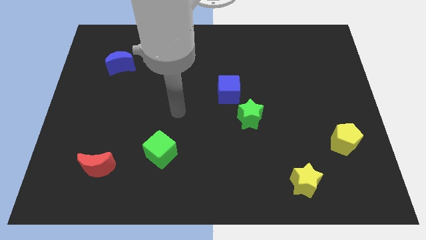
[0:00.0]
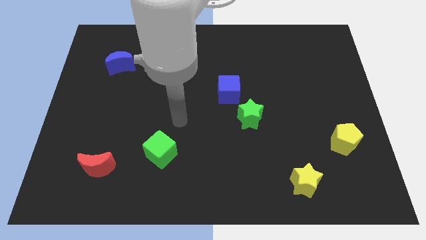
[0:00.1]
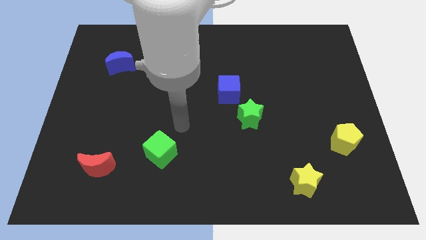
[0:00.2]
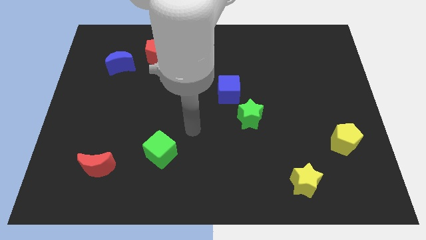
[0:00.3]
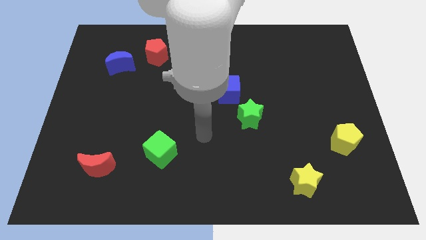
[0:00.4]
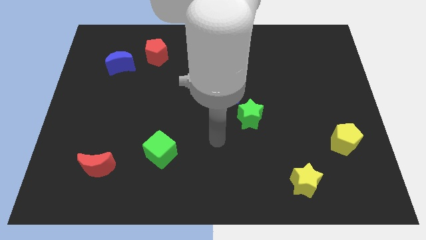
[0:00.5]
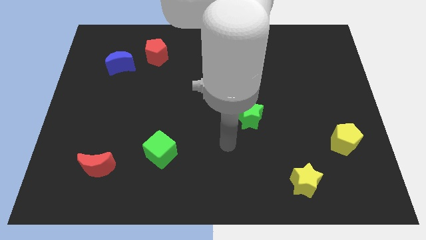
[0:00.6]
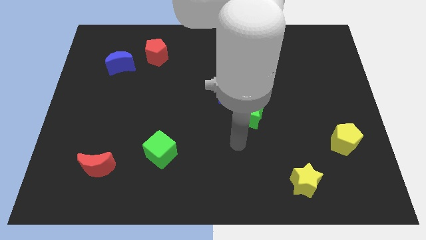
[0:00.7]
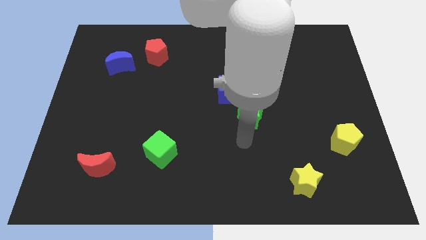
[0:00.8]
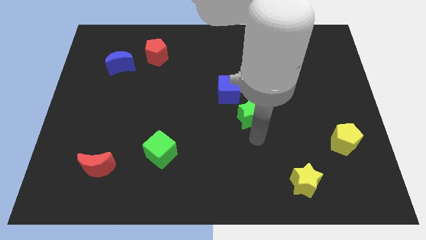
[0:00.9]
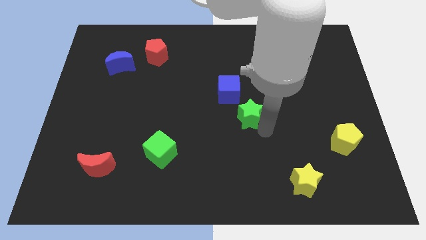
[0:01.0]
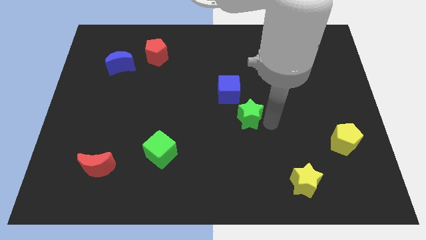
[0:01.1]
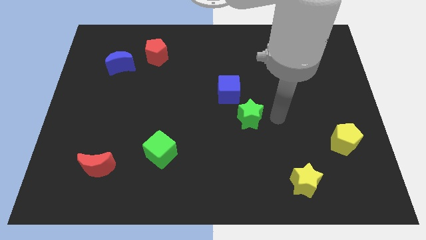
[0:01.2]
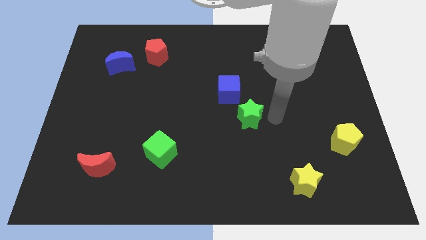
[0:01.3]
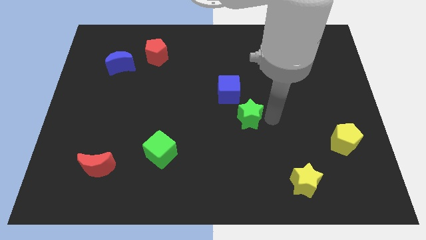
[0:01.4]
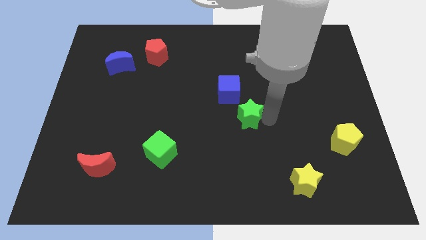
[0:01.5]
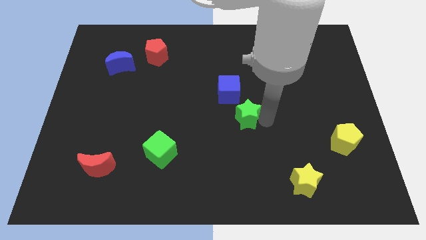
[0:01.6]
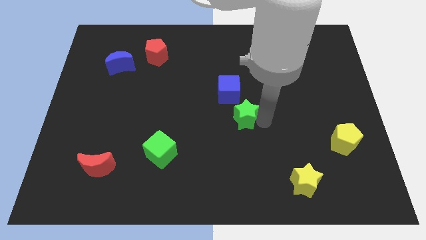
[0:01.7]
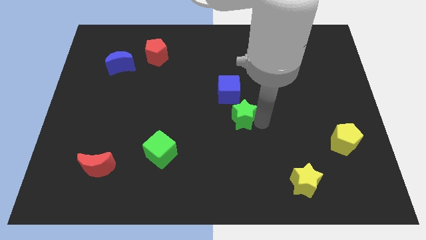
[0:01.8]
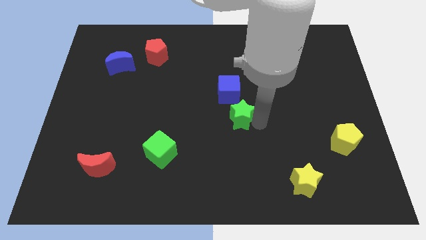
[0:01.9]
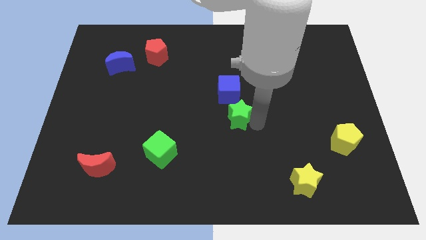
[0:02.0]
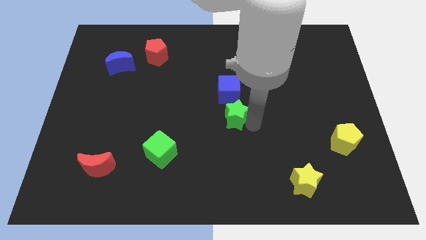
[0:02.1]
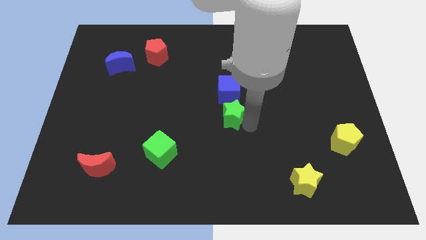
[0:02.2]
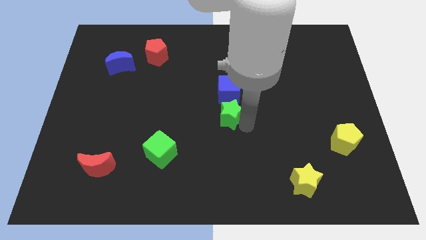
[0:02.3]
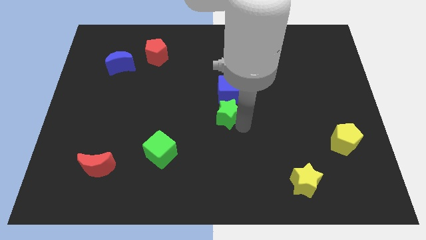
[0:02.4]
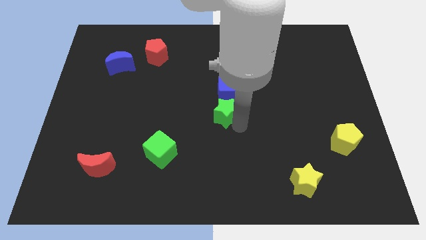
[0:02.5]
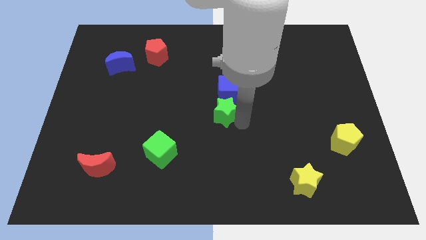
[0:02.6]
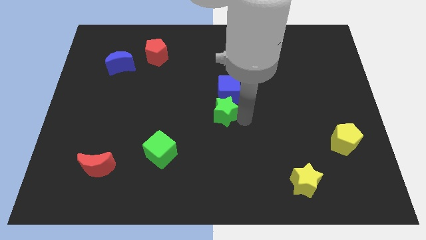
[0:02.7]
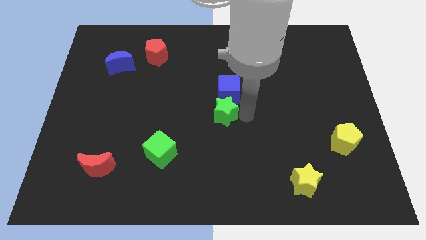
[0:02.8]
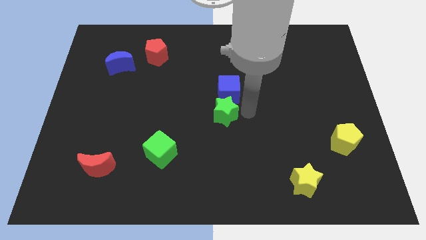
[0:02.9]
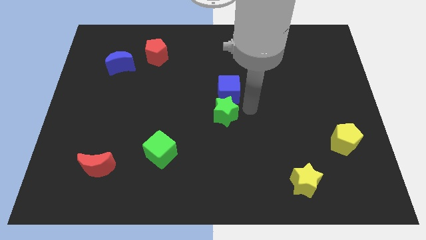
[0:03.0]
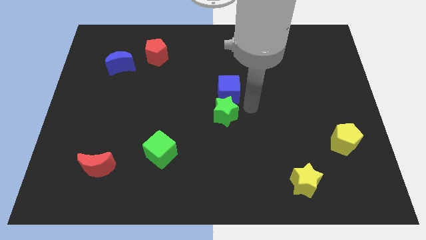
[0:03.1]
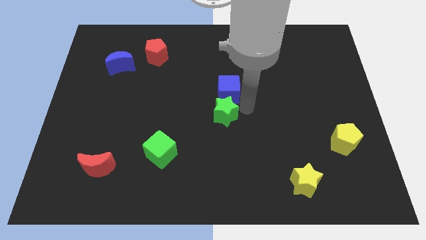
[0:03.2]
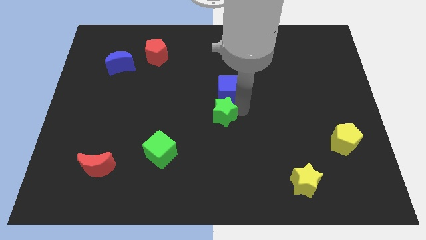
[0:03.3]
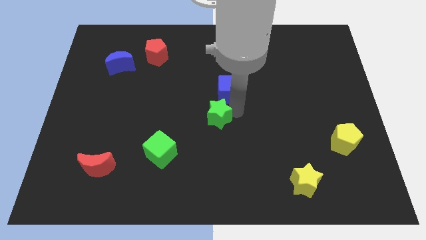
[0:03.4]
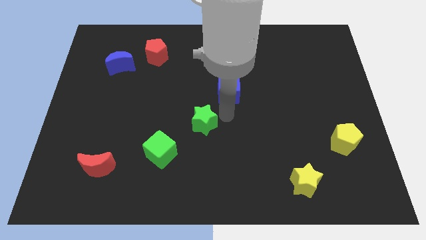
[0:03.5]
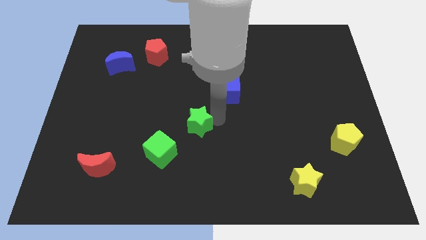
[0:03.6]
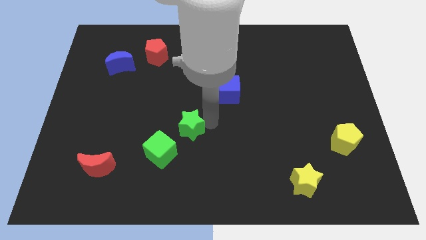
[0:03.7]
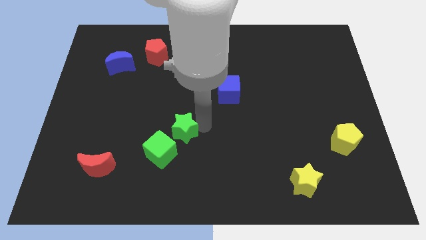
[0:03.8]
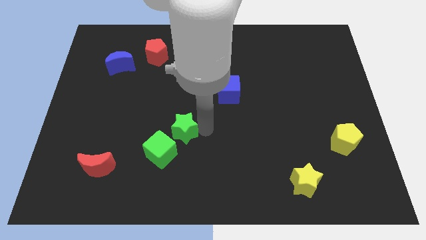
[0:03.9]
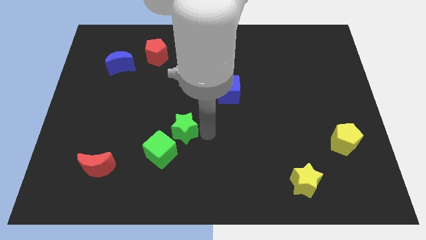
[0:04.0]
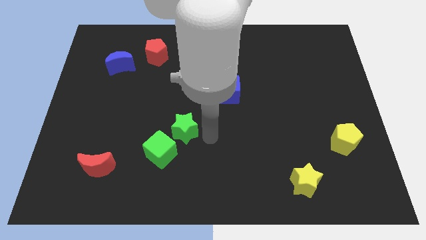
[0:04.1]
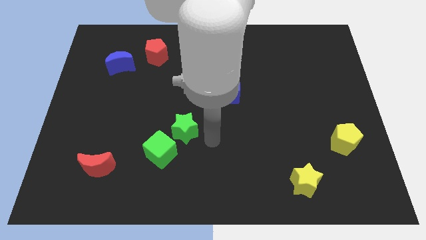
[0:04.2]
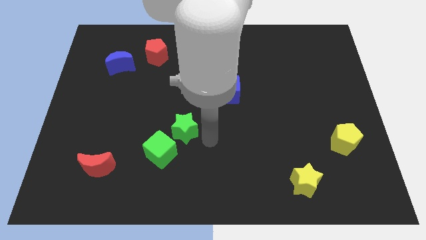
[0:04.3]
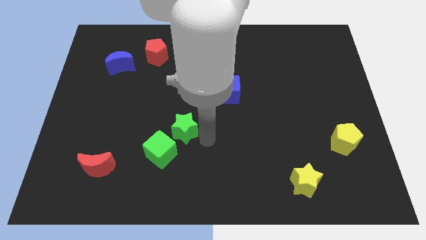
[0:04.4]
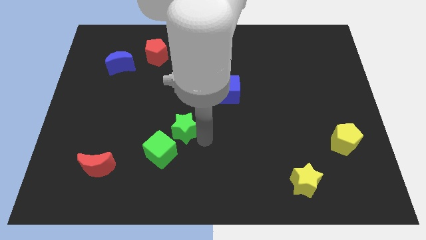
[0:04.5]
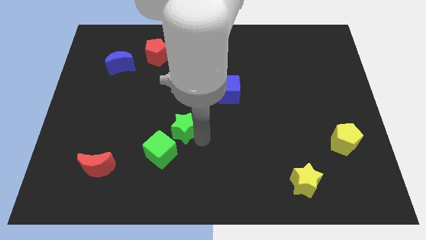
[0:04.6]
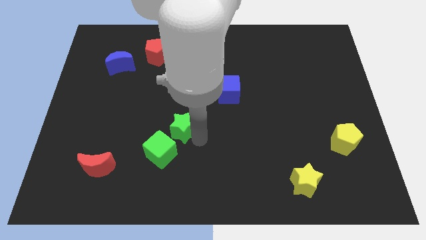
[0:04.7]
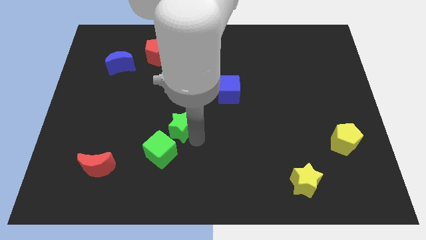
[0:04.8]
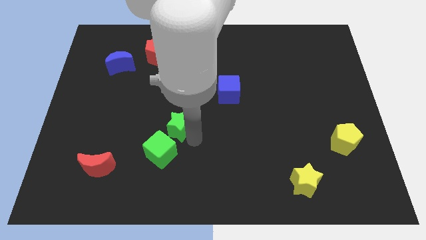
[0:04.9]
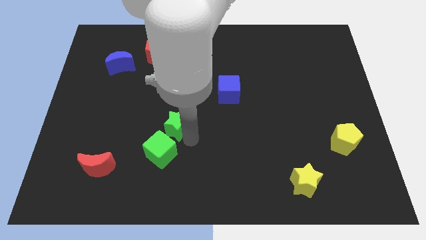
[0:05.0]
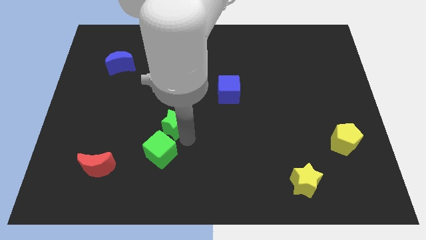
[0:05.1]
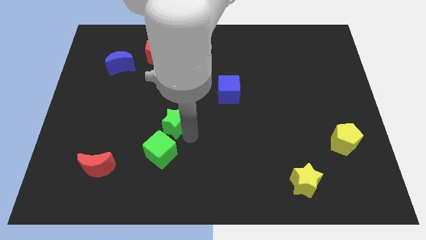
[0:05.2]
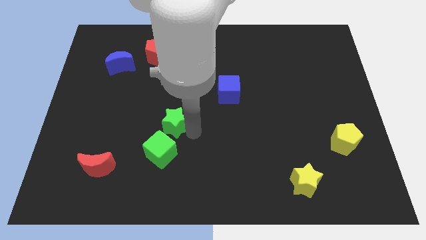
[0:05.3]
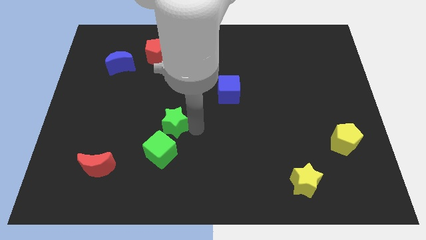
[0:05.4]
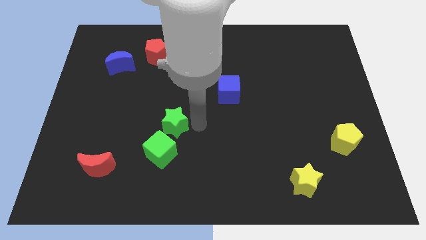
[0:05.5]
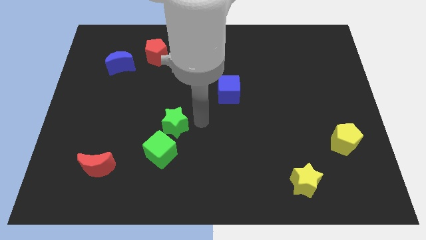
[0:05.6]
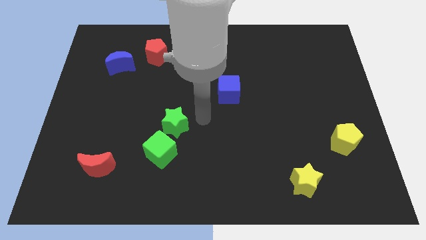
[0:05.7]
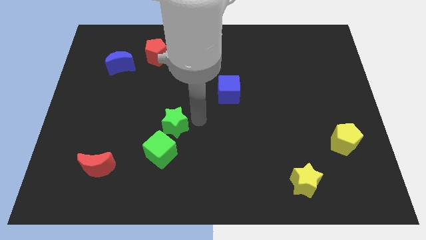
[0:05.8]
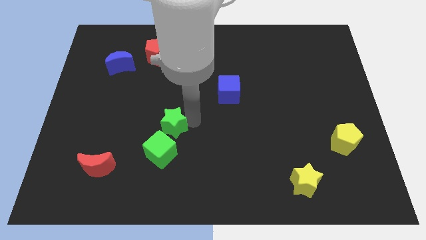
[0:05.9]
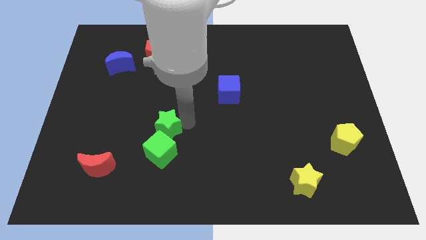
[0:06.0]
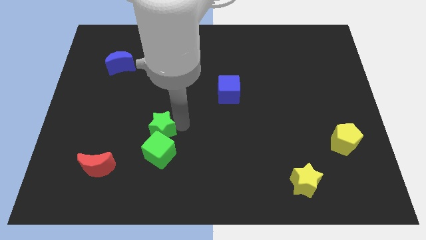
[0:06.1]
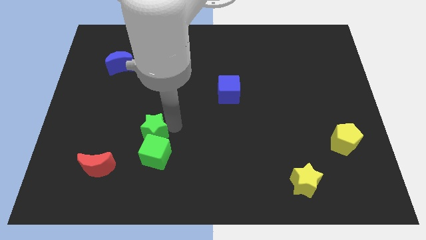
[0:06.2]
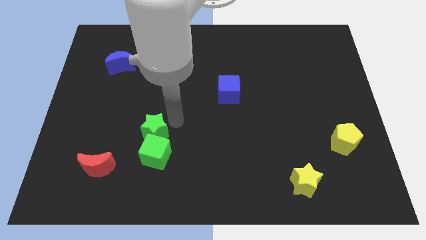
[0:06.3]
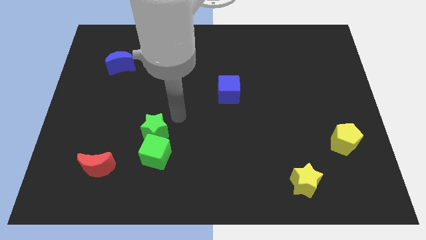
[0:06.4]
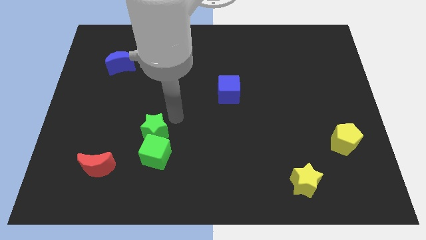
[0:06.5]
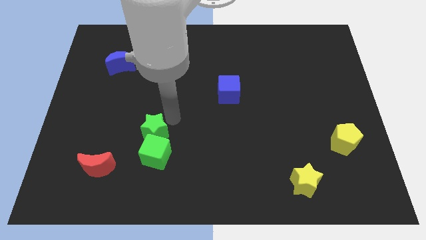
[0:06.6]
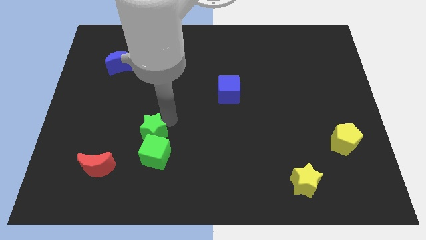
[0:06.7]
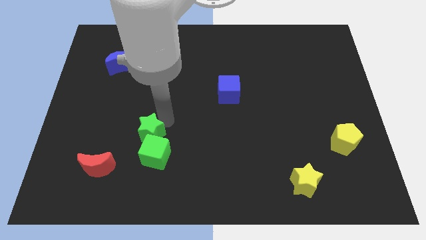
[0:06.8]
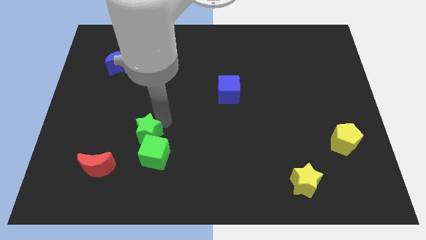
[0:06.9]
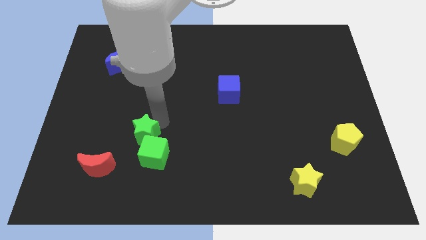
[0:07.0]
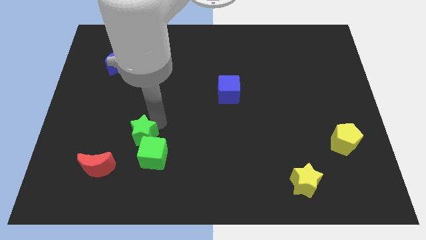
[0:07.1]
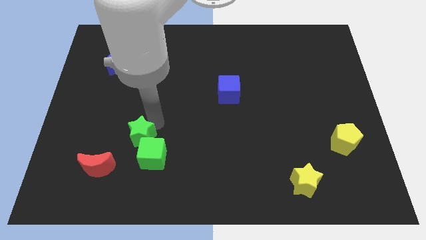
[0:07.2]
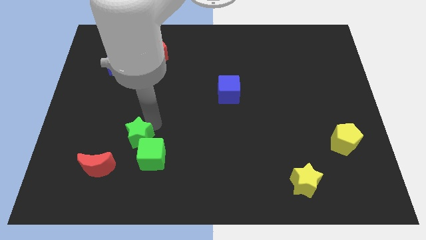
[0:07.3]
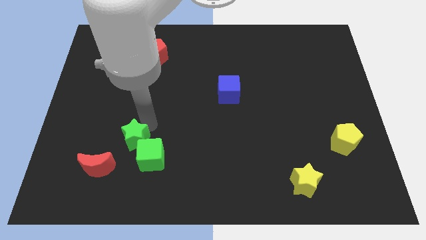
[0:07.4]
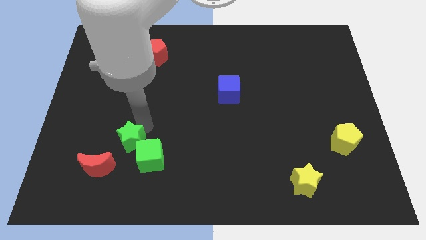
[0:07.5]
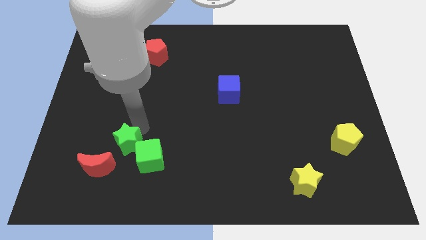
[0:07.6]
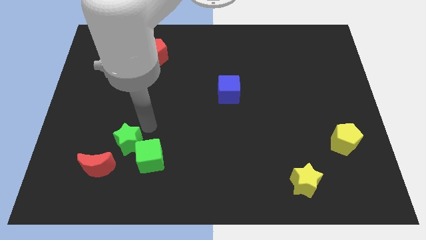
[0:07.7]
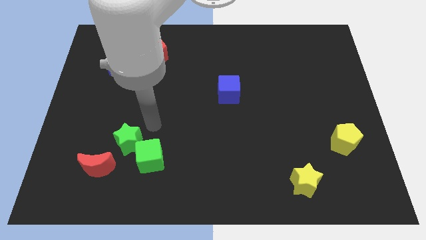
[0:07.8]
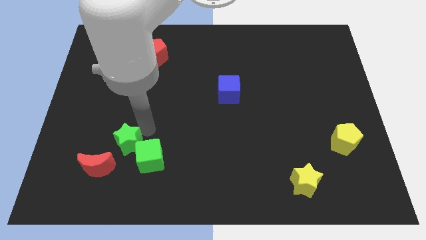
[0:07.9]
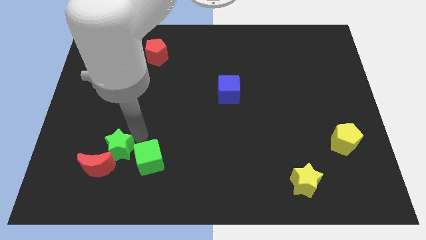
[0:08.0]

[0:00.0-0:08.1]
put the green star towards the red moon
